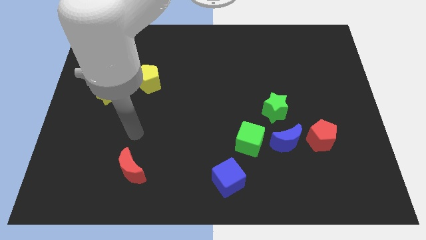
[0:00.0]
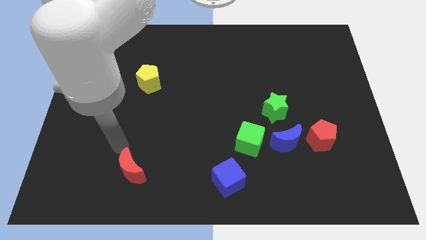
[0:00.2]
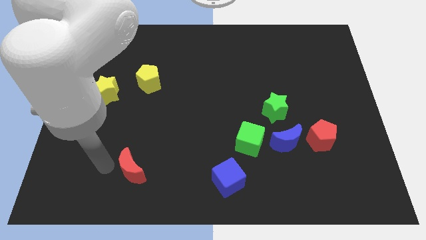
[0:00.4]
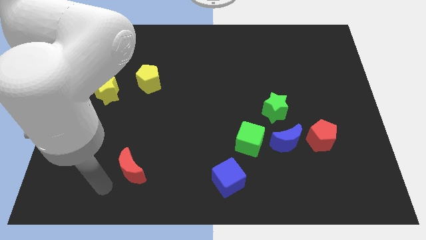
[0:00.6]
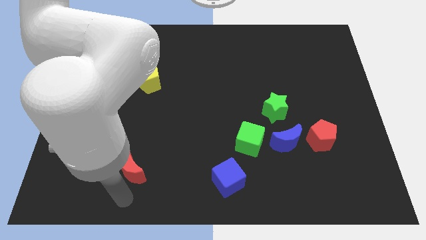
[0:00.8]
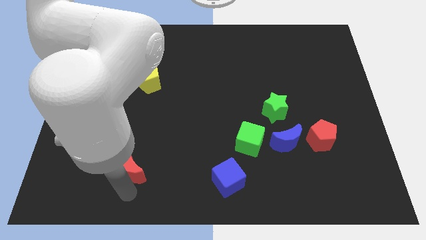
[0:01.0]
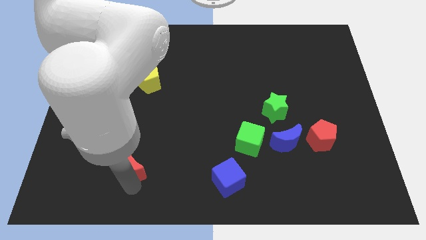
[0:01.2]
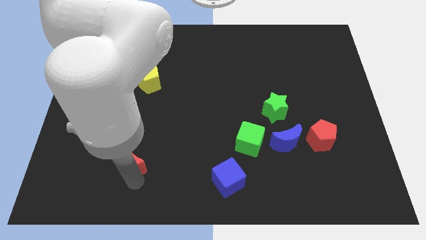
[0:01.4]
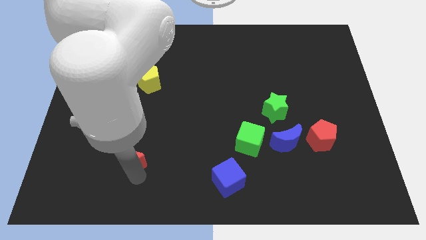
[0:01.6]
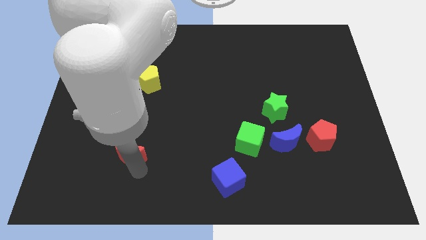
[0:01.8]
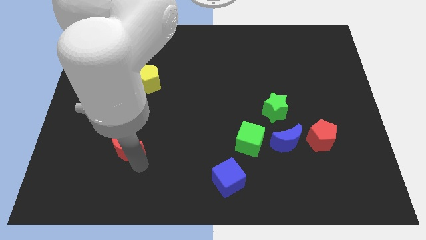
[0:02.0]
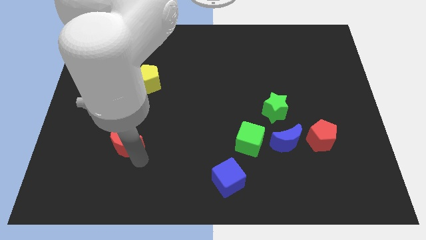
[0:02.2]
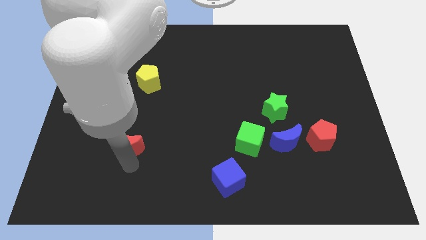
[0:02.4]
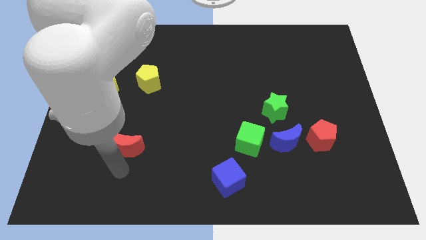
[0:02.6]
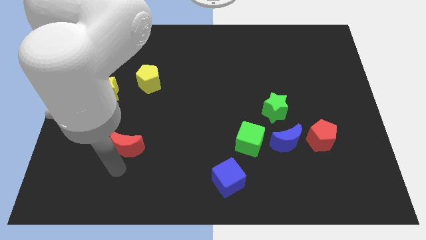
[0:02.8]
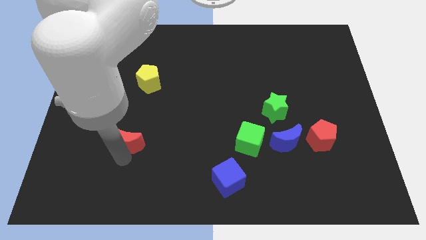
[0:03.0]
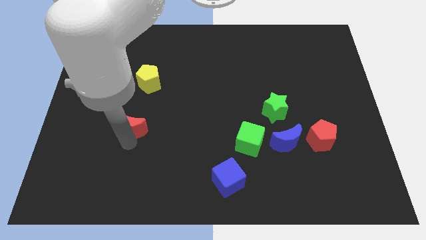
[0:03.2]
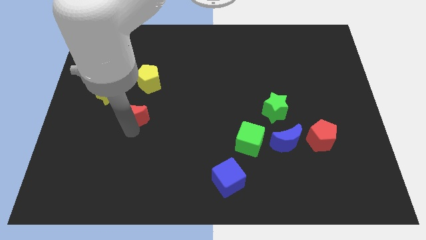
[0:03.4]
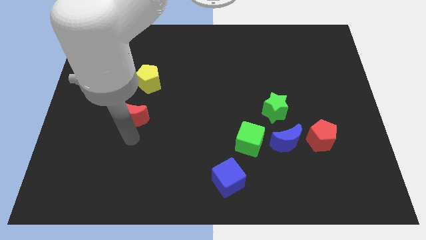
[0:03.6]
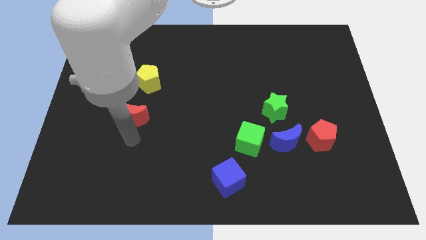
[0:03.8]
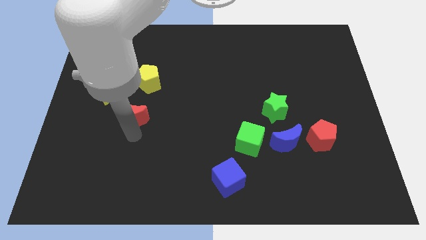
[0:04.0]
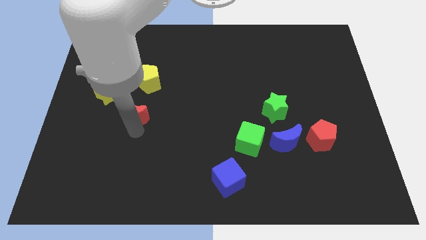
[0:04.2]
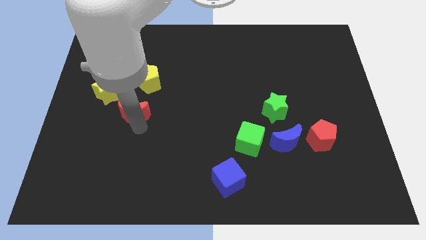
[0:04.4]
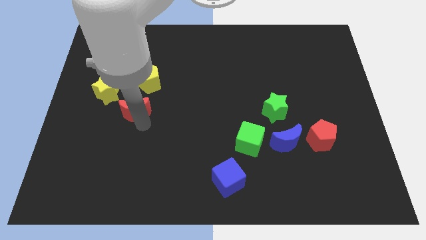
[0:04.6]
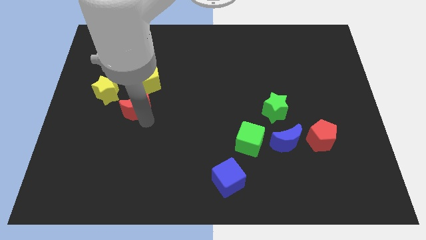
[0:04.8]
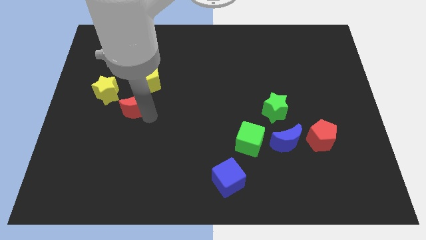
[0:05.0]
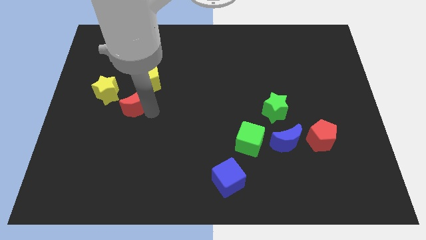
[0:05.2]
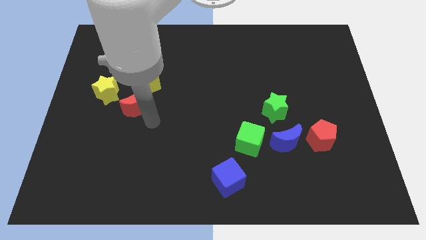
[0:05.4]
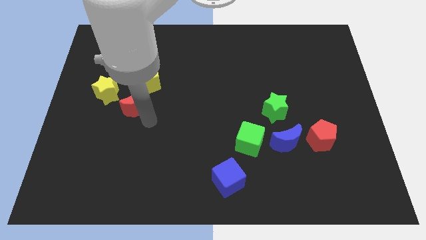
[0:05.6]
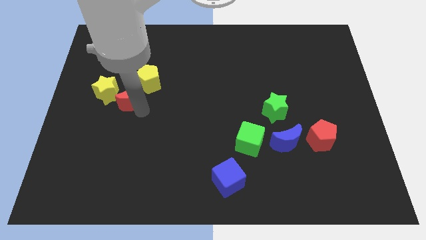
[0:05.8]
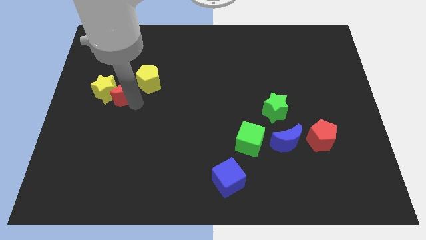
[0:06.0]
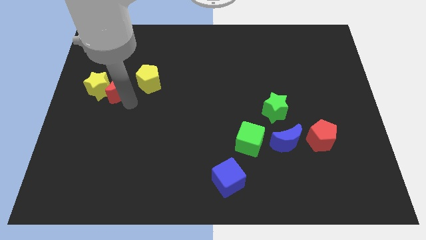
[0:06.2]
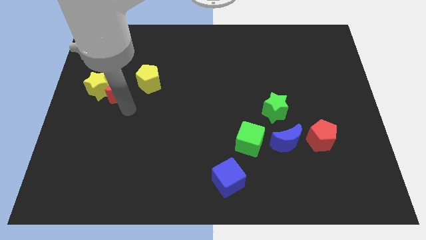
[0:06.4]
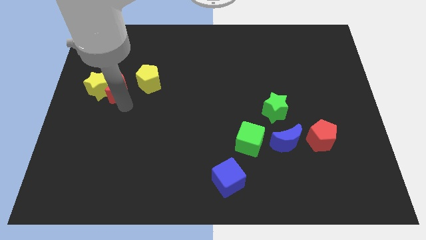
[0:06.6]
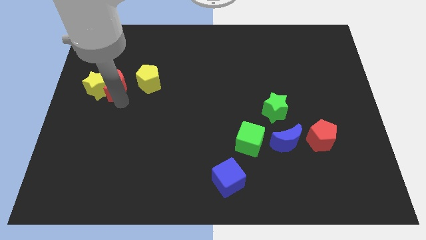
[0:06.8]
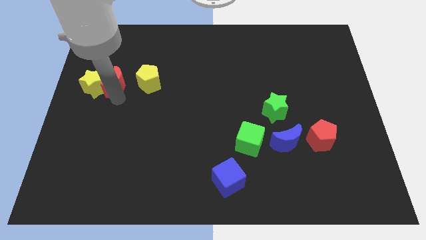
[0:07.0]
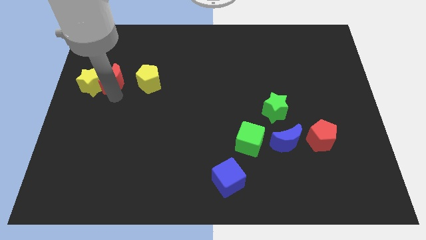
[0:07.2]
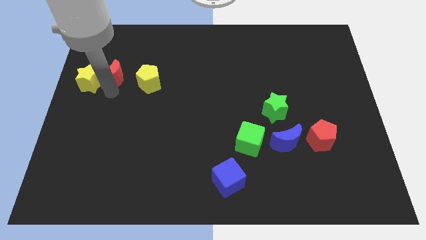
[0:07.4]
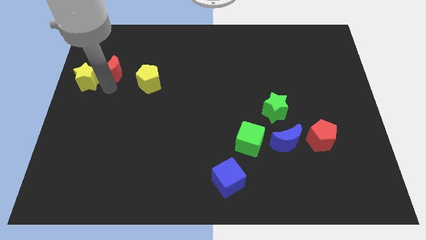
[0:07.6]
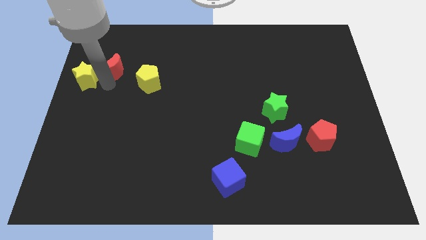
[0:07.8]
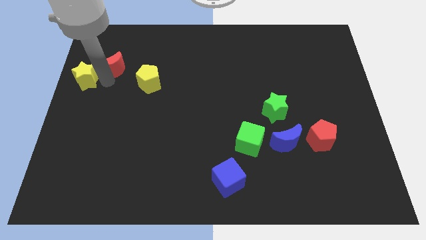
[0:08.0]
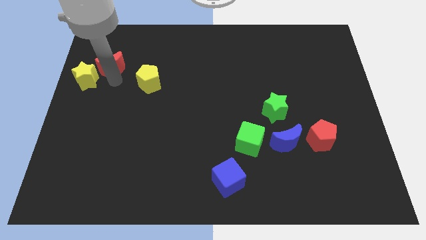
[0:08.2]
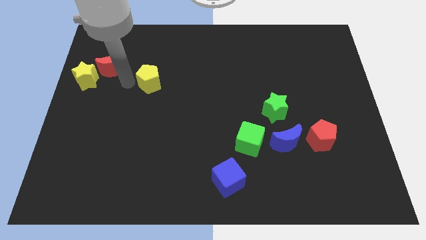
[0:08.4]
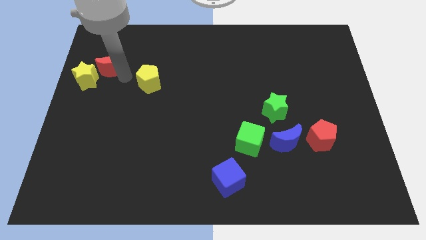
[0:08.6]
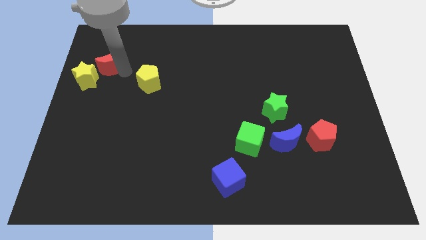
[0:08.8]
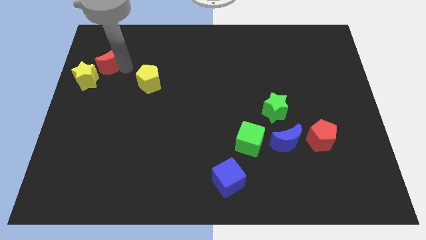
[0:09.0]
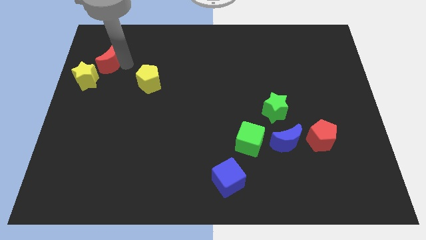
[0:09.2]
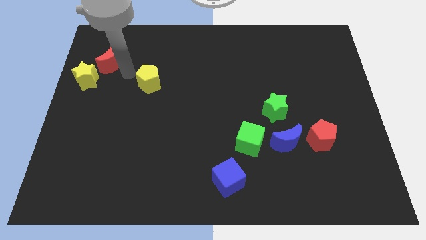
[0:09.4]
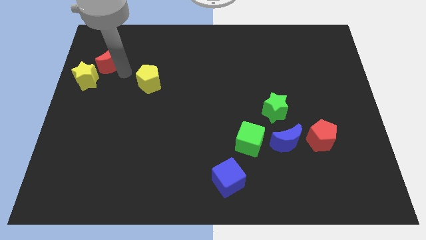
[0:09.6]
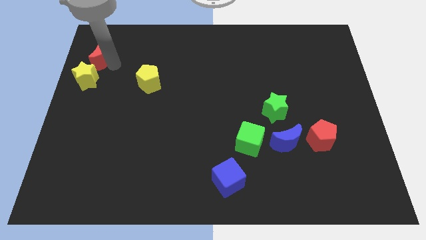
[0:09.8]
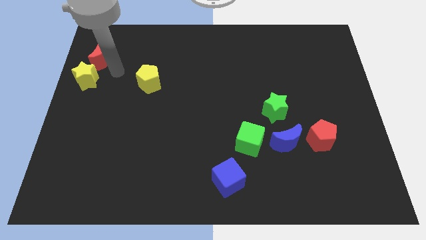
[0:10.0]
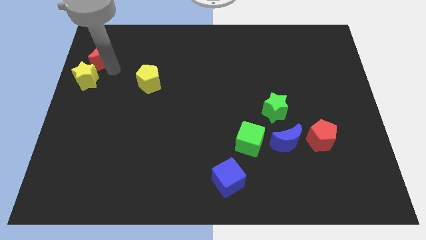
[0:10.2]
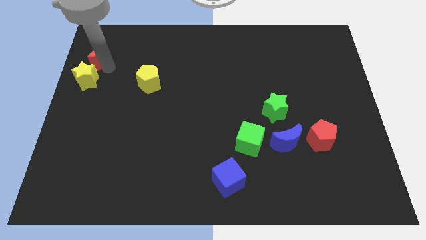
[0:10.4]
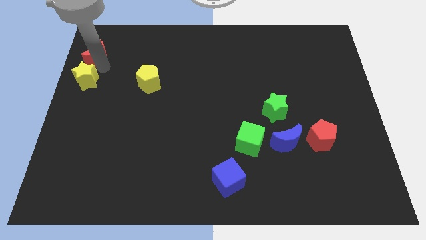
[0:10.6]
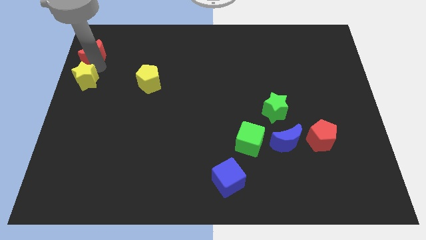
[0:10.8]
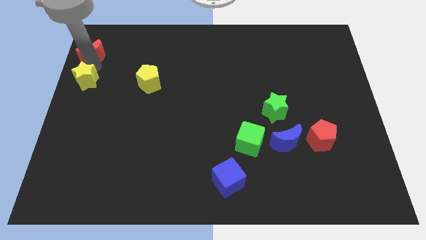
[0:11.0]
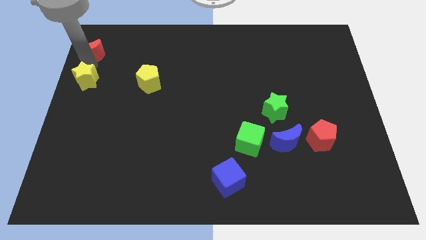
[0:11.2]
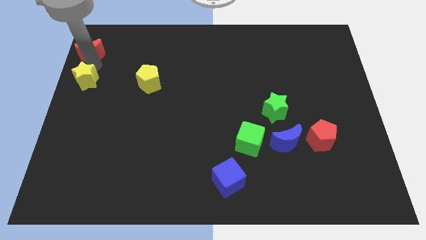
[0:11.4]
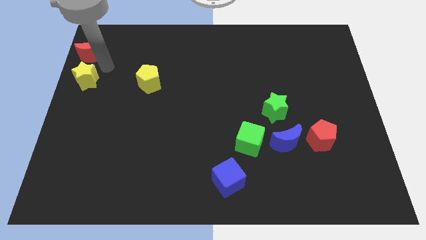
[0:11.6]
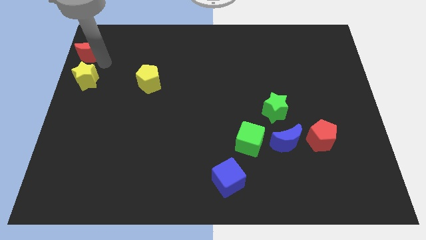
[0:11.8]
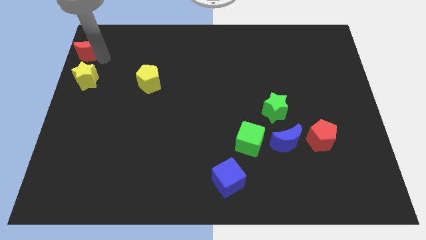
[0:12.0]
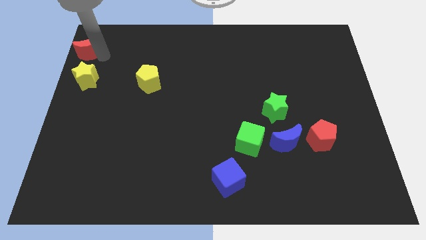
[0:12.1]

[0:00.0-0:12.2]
push the red moon to the upper left corner

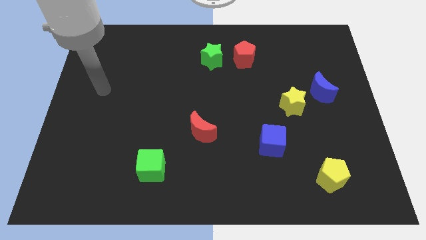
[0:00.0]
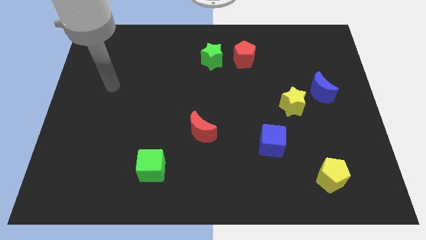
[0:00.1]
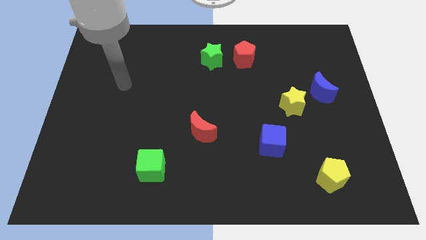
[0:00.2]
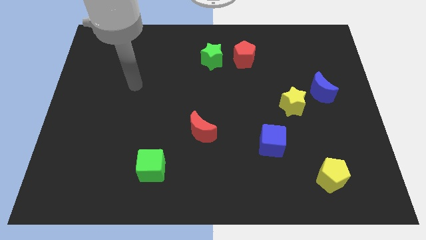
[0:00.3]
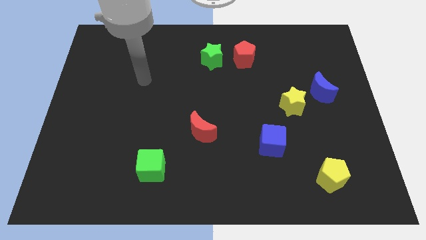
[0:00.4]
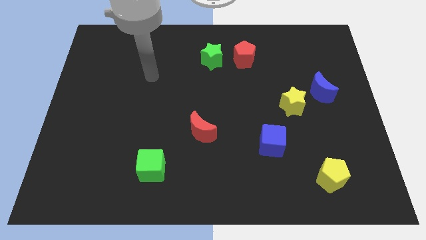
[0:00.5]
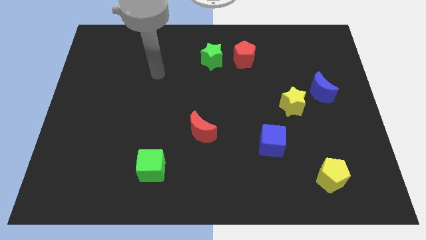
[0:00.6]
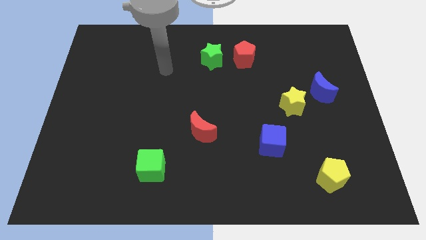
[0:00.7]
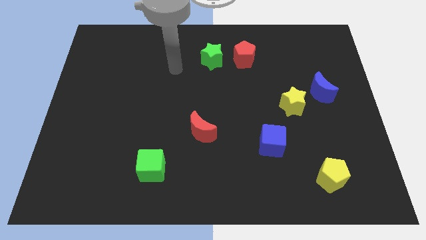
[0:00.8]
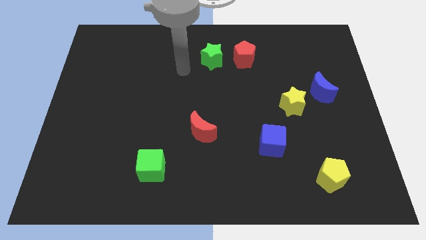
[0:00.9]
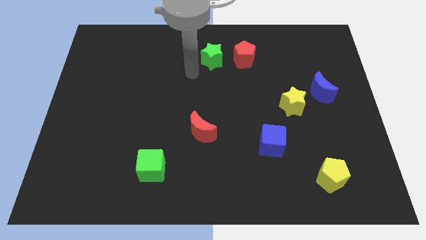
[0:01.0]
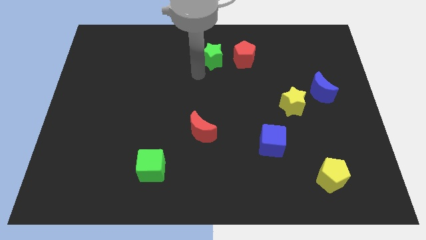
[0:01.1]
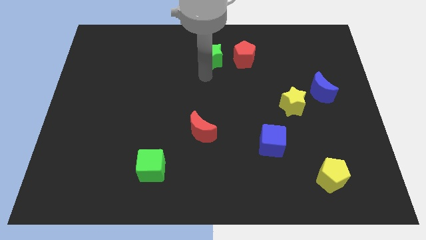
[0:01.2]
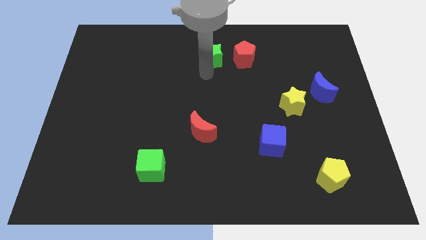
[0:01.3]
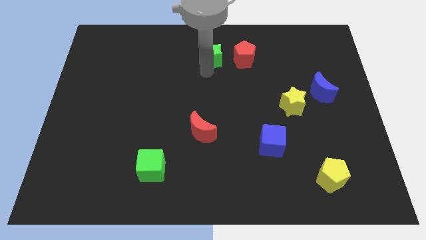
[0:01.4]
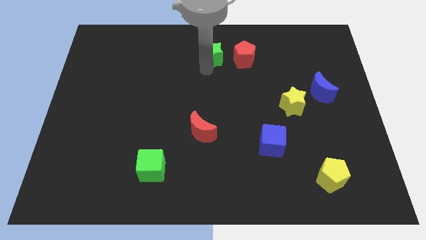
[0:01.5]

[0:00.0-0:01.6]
put the green star to the towards your base
